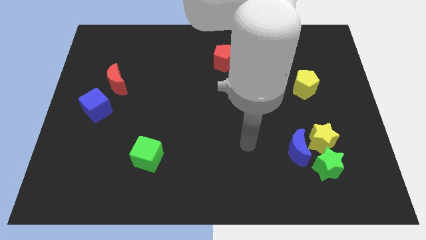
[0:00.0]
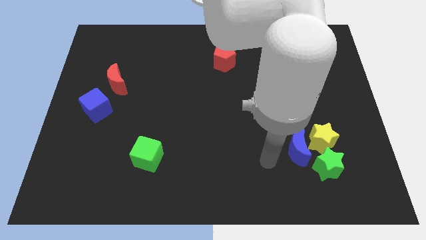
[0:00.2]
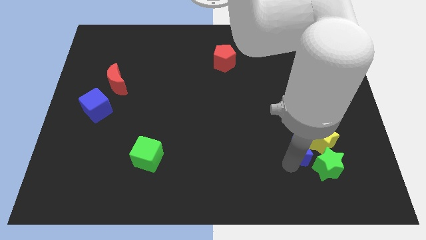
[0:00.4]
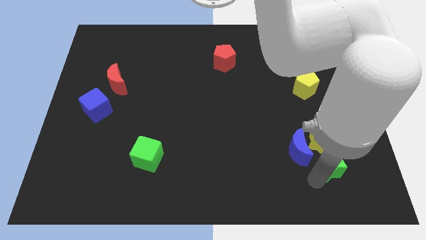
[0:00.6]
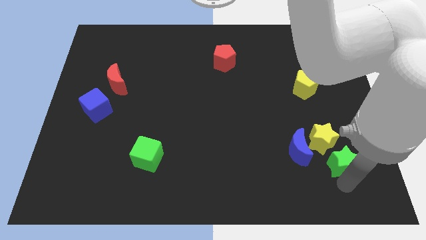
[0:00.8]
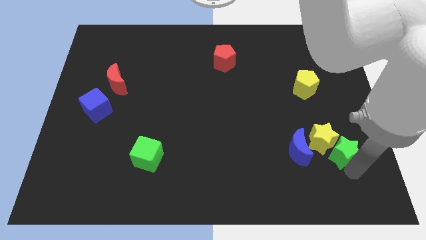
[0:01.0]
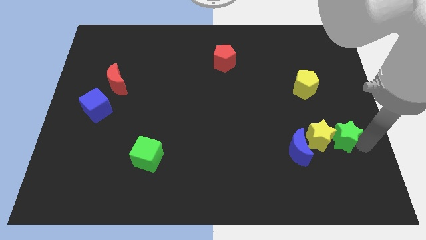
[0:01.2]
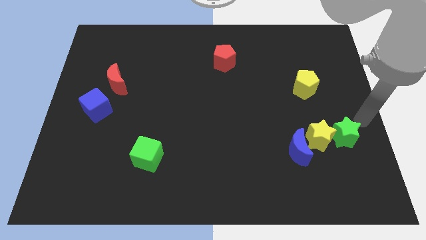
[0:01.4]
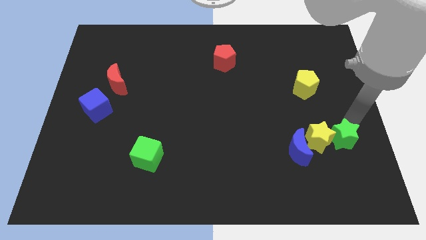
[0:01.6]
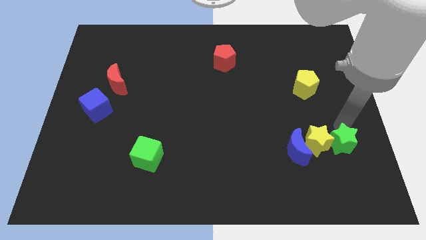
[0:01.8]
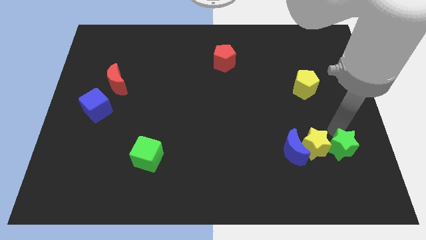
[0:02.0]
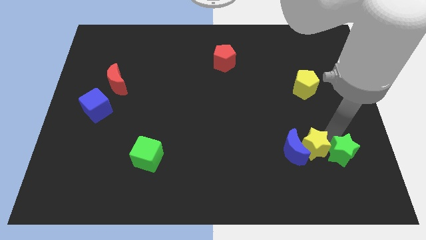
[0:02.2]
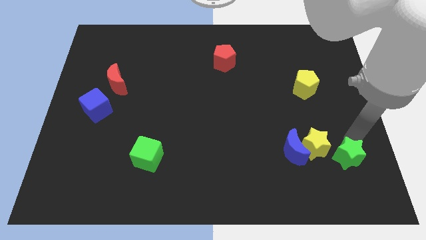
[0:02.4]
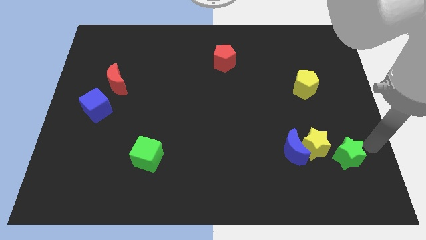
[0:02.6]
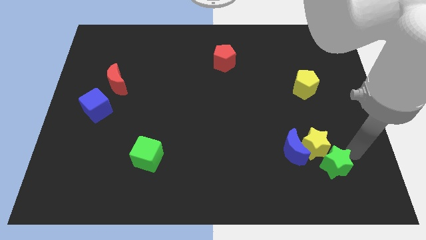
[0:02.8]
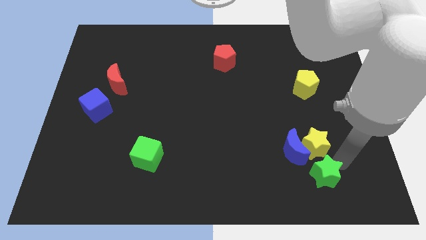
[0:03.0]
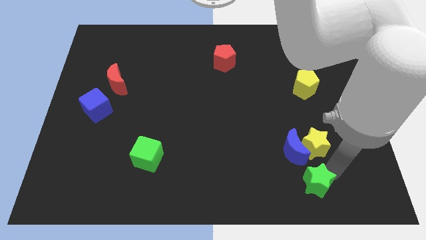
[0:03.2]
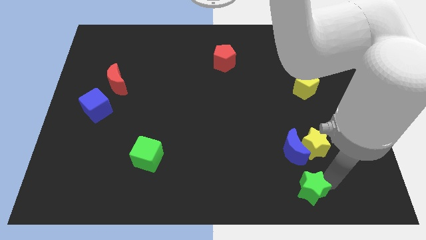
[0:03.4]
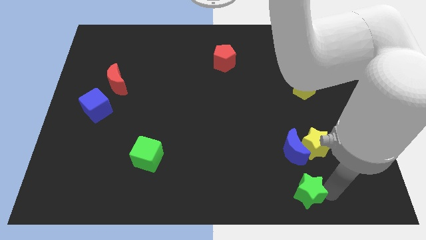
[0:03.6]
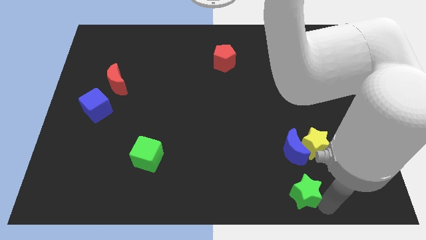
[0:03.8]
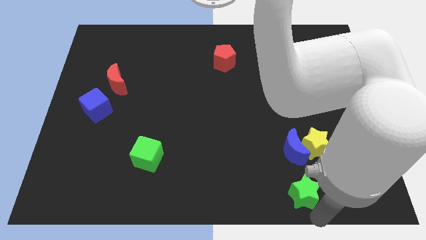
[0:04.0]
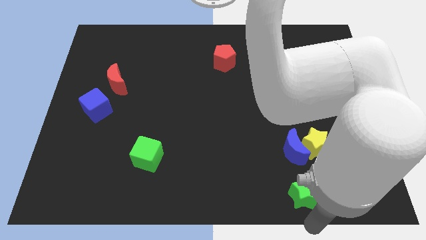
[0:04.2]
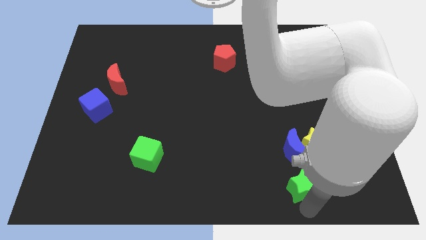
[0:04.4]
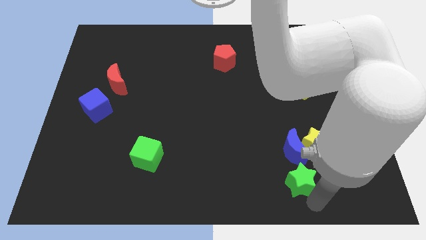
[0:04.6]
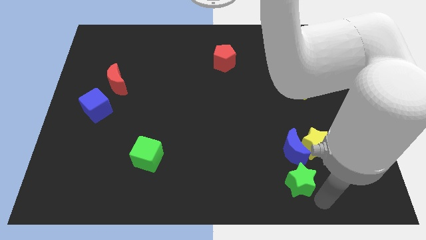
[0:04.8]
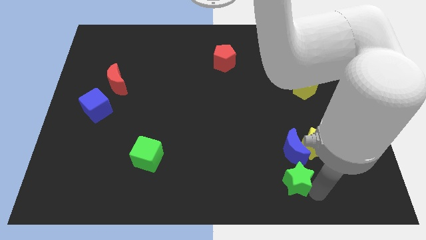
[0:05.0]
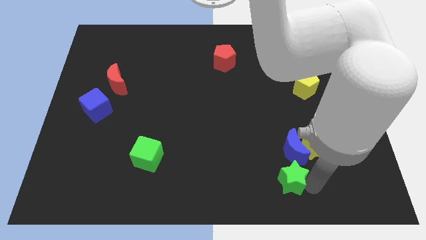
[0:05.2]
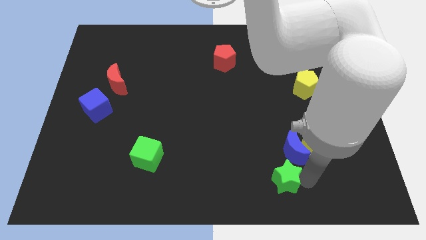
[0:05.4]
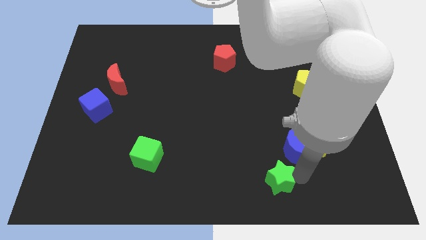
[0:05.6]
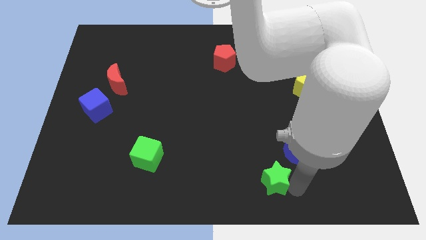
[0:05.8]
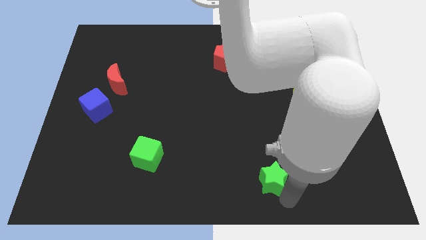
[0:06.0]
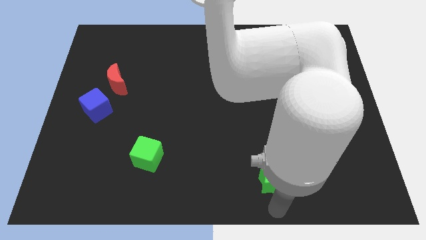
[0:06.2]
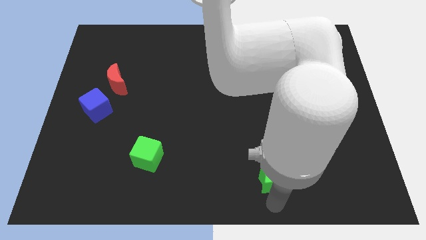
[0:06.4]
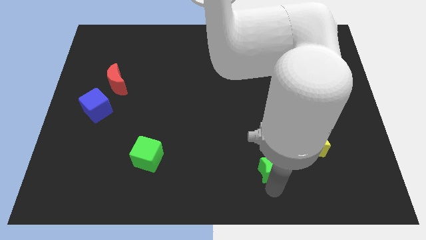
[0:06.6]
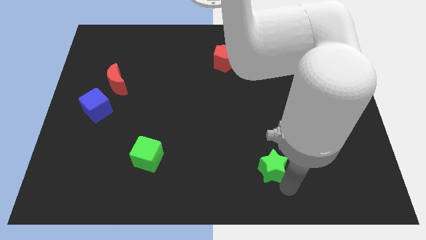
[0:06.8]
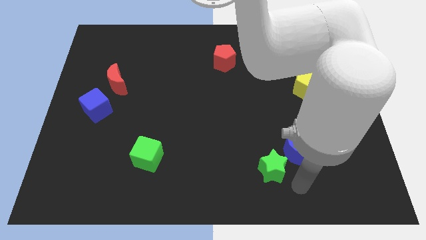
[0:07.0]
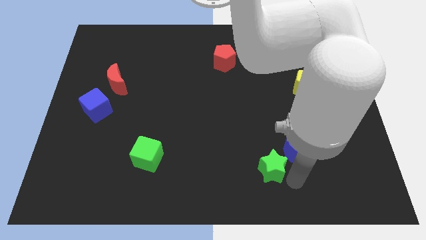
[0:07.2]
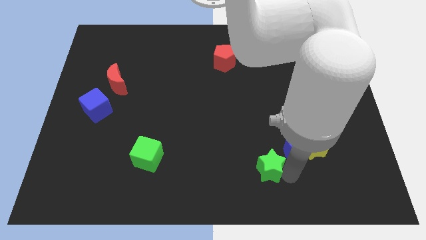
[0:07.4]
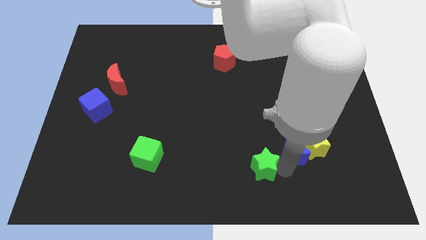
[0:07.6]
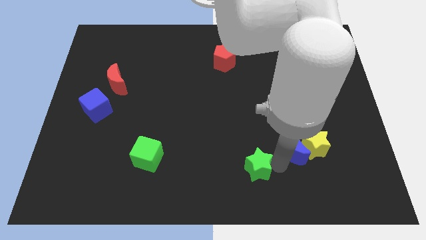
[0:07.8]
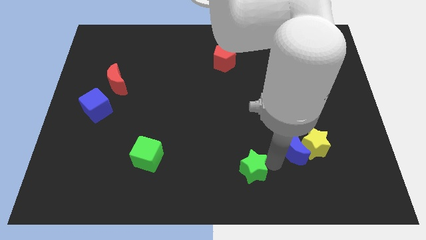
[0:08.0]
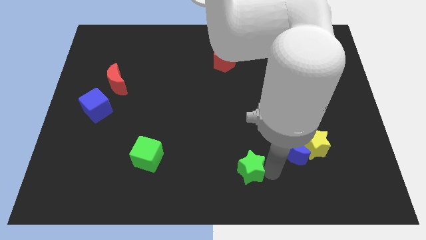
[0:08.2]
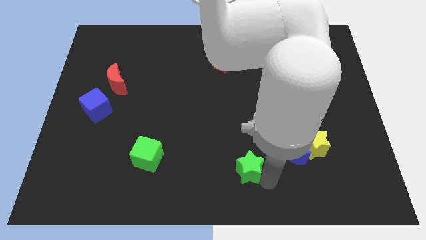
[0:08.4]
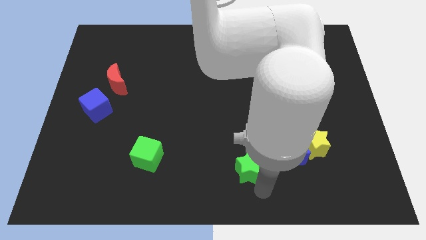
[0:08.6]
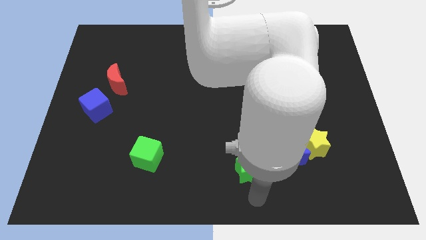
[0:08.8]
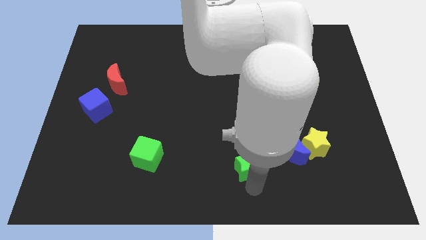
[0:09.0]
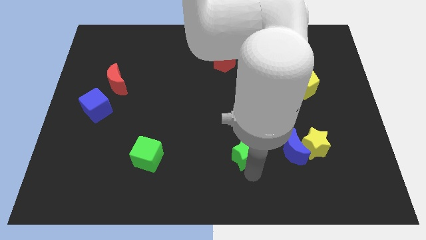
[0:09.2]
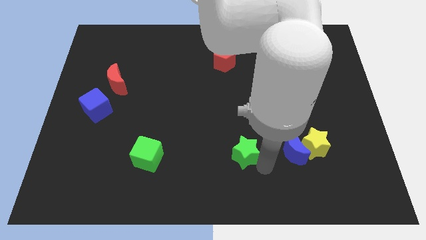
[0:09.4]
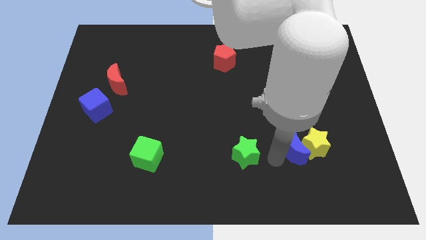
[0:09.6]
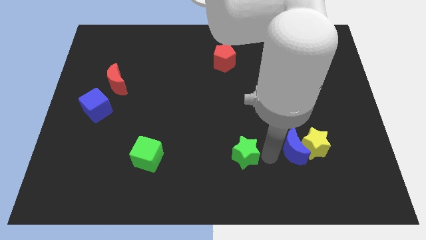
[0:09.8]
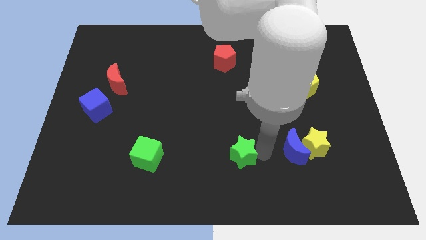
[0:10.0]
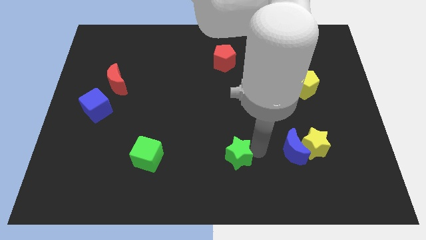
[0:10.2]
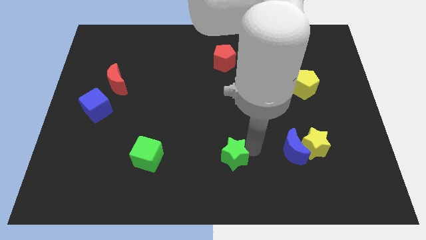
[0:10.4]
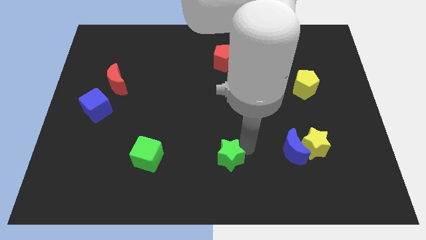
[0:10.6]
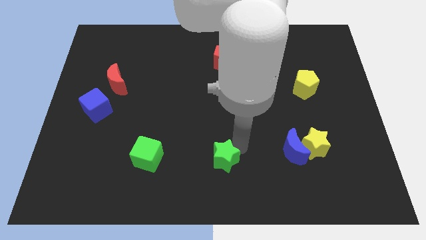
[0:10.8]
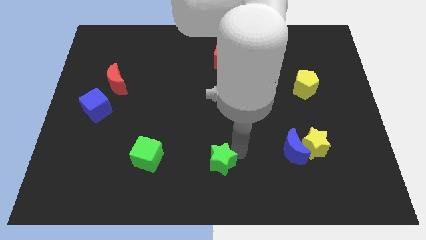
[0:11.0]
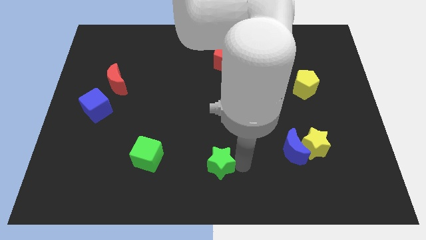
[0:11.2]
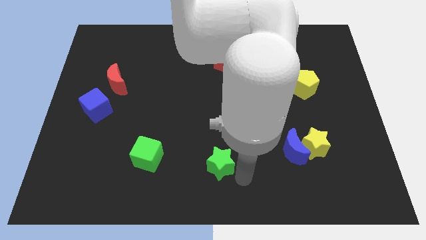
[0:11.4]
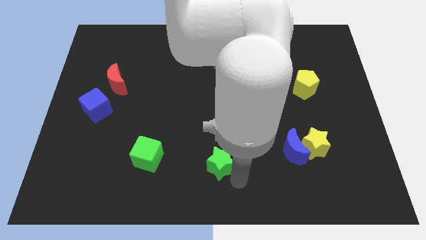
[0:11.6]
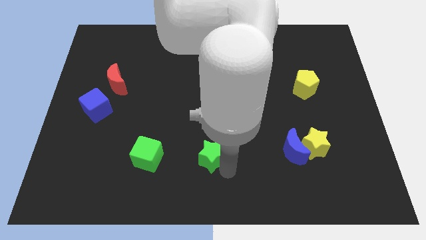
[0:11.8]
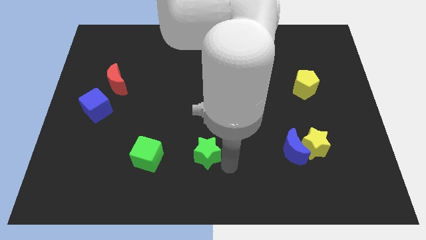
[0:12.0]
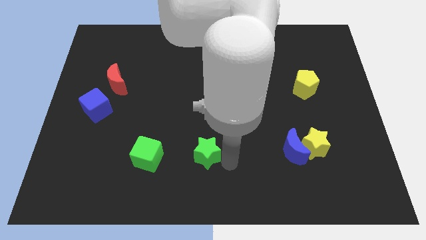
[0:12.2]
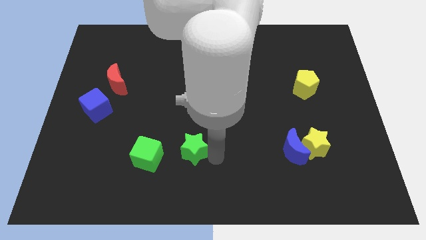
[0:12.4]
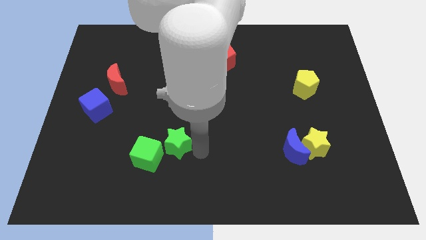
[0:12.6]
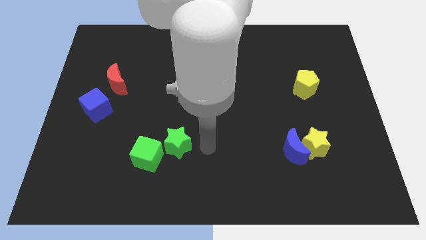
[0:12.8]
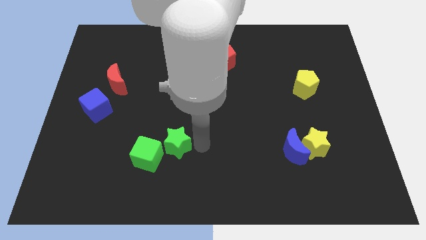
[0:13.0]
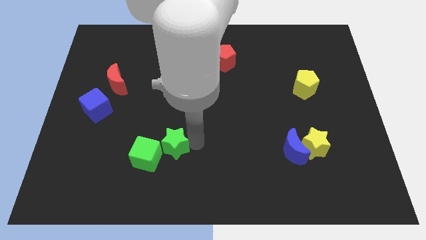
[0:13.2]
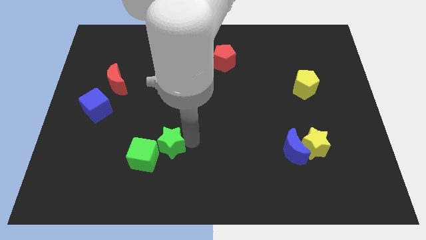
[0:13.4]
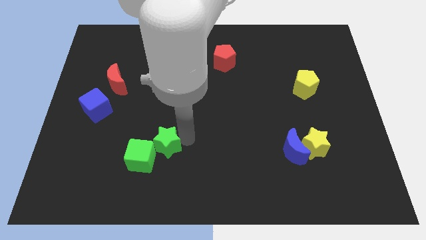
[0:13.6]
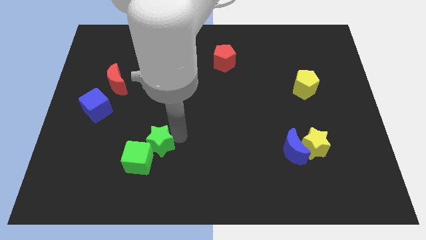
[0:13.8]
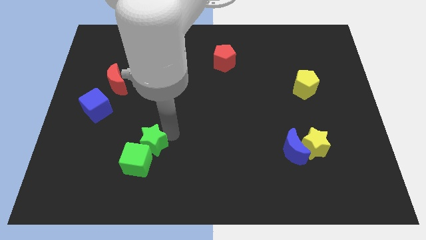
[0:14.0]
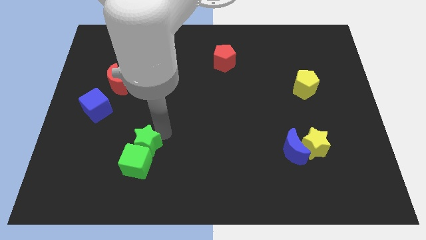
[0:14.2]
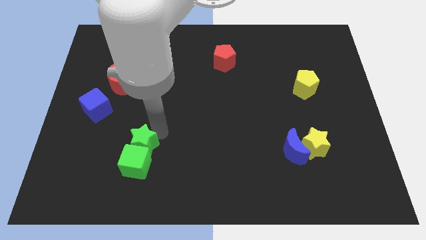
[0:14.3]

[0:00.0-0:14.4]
put the green star diagonally up and to the left of the green cube
